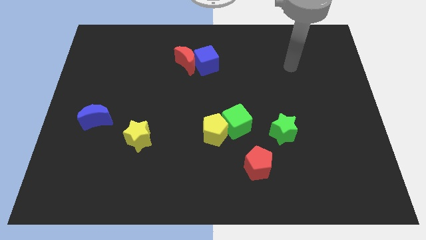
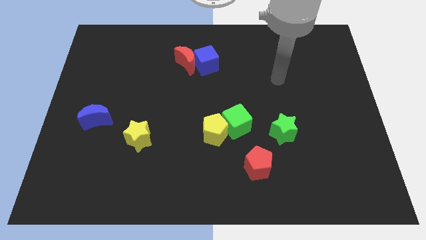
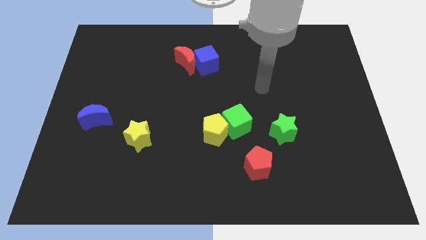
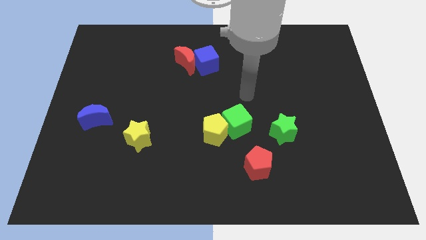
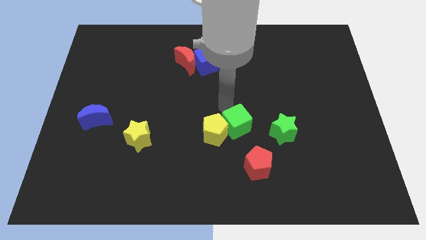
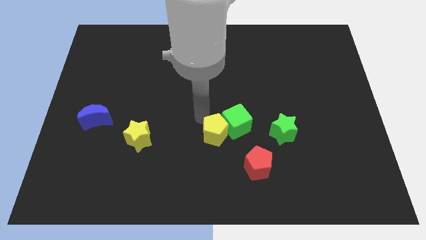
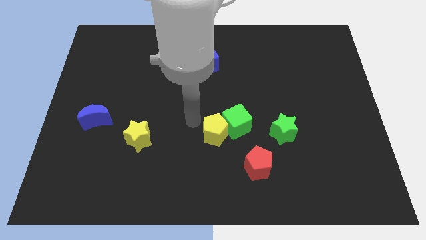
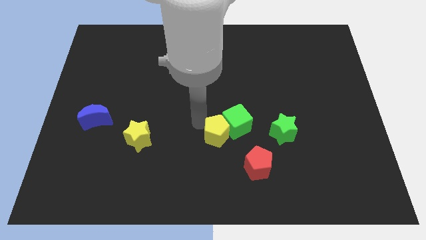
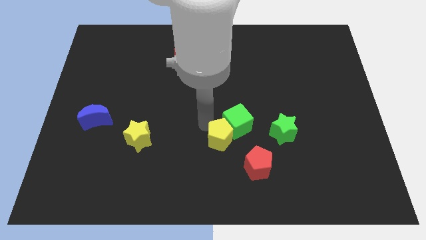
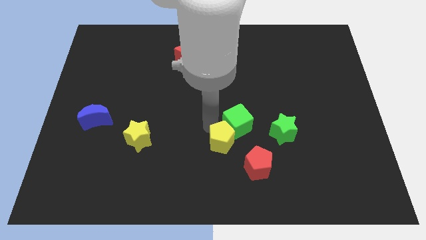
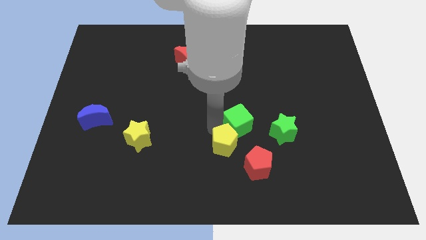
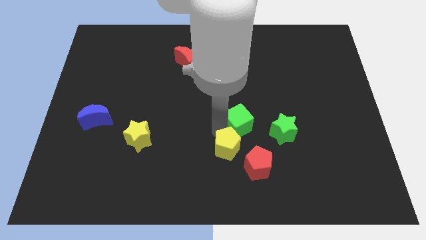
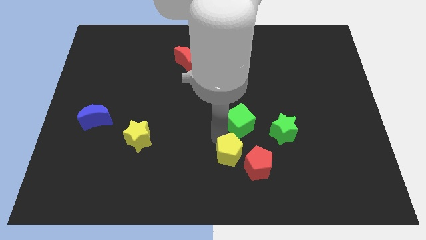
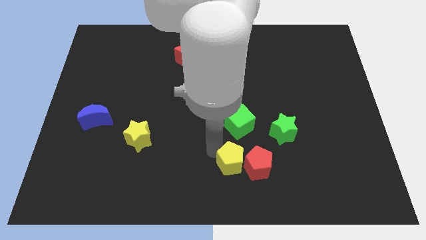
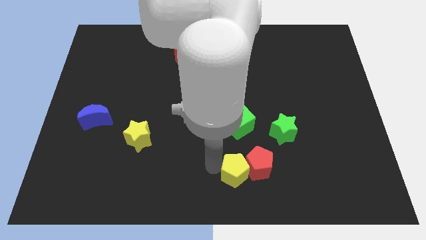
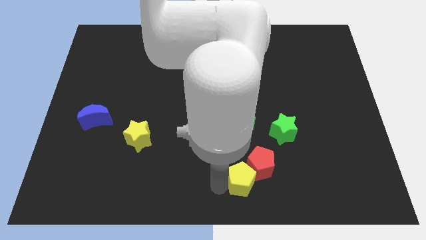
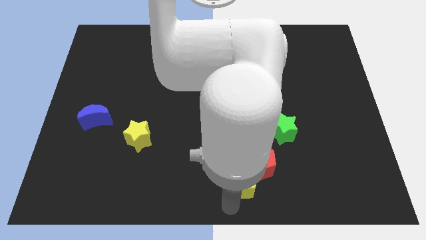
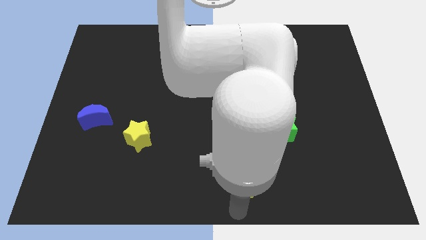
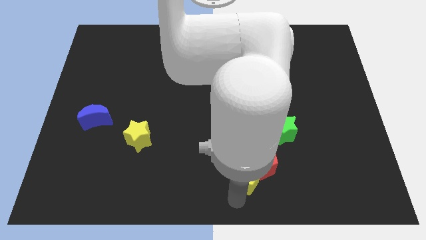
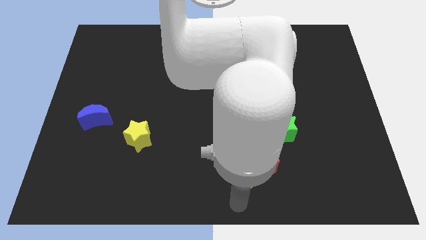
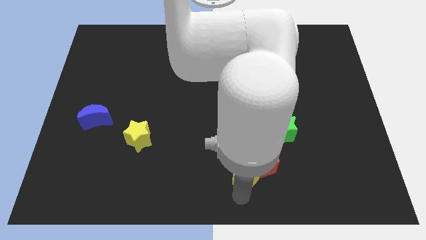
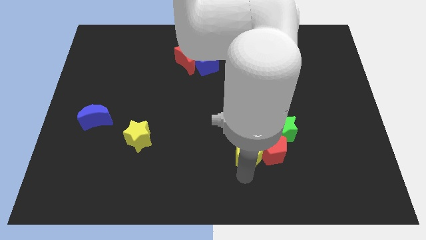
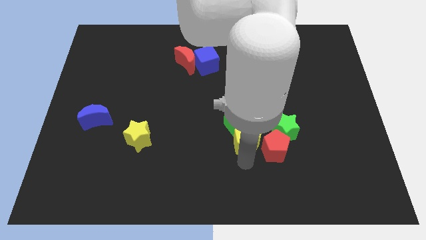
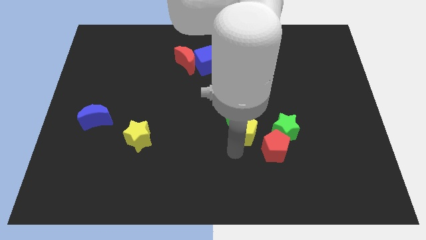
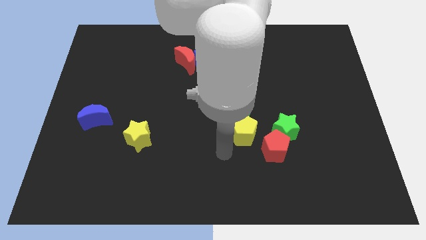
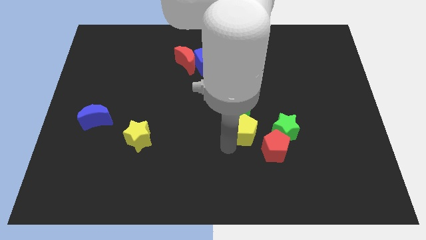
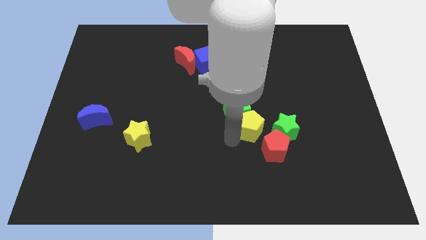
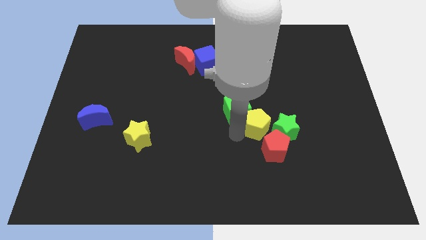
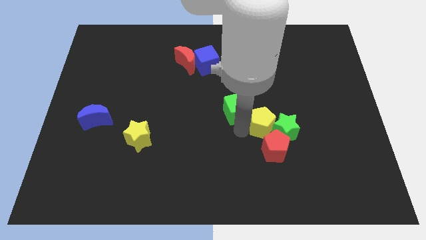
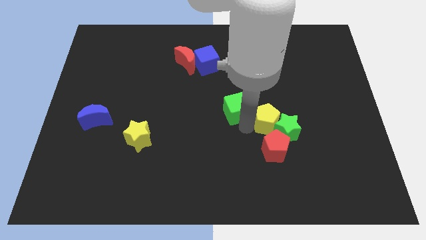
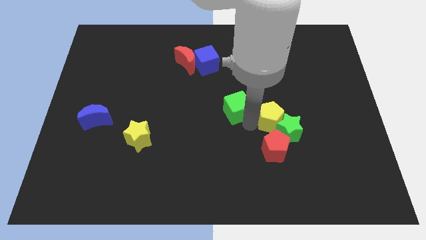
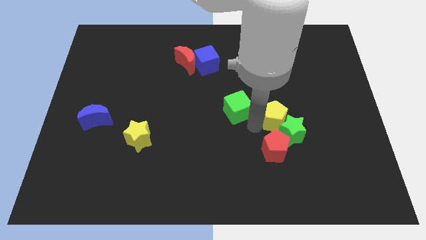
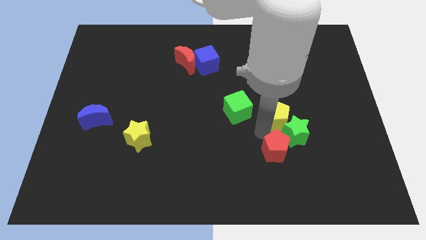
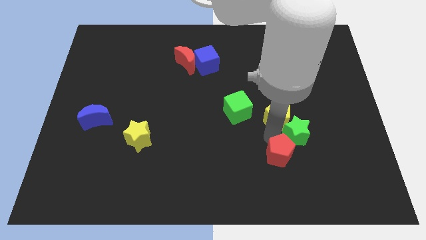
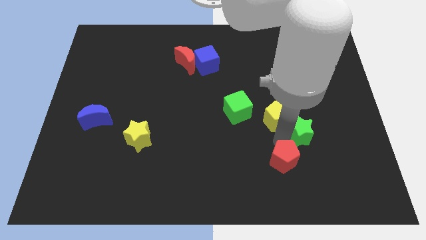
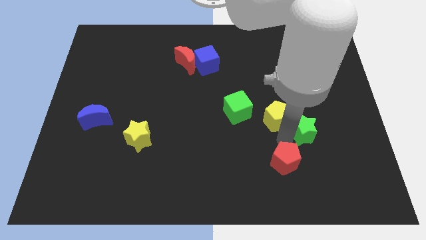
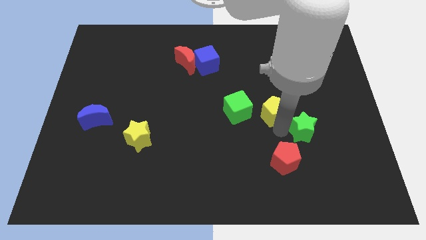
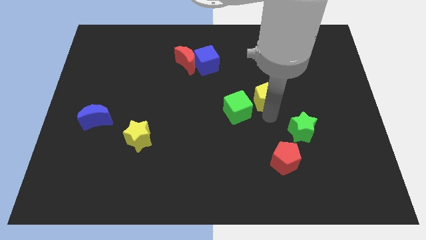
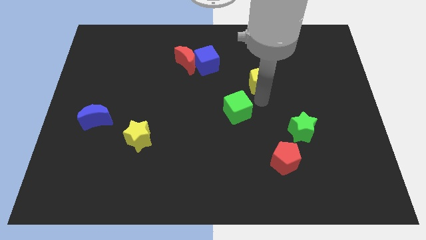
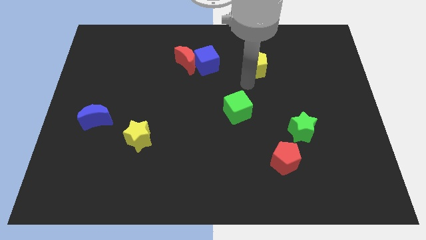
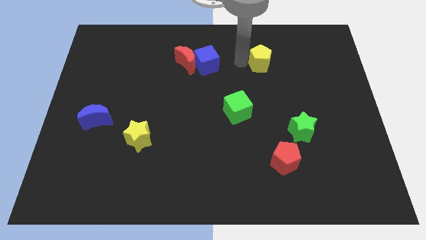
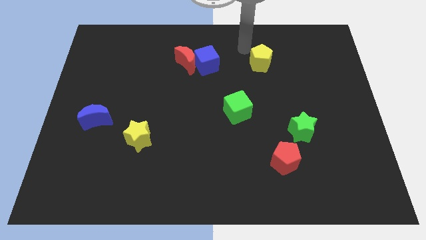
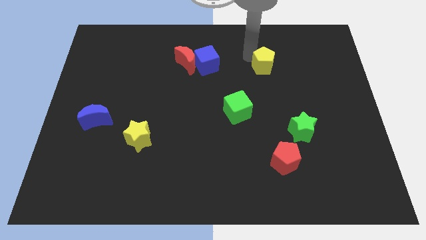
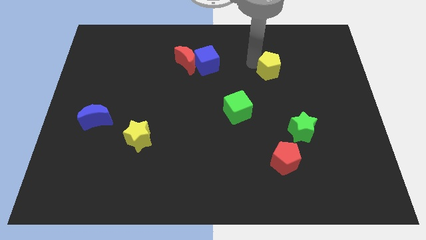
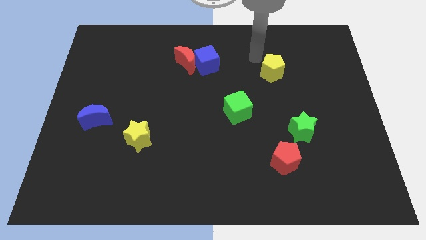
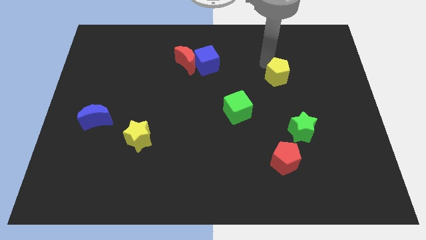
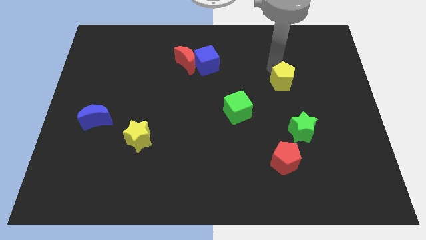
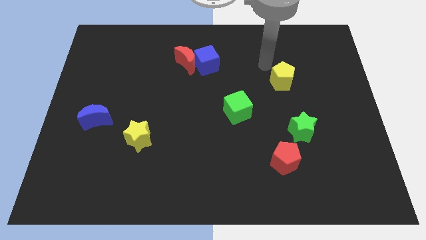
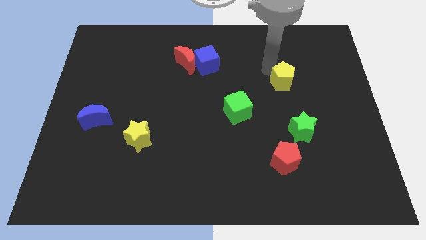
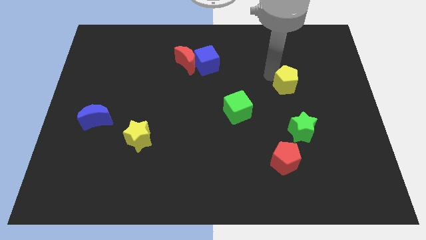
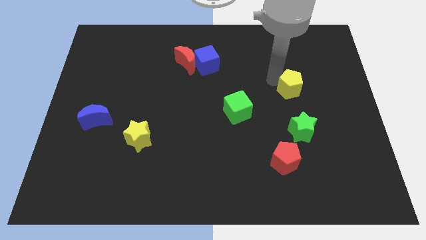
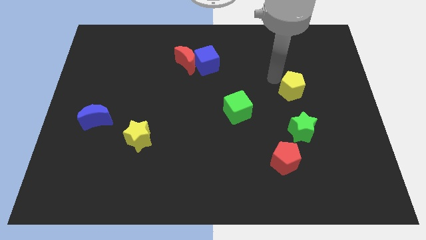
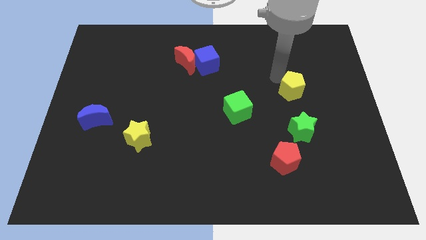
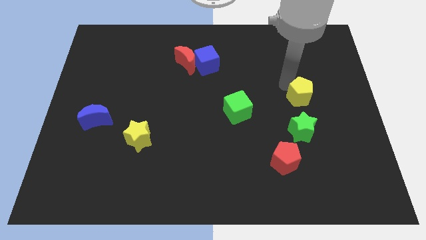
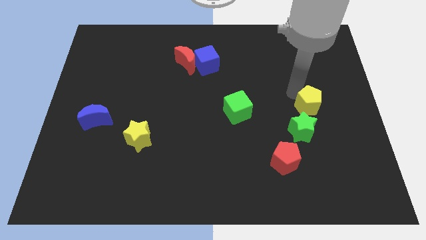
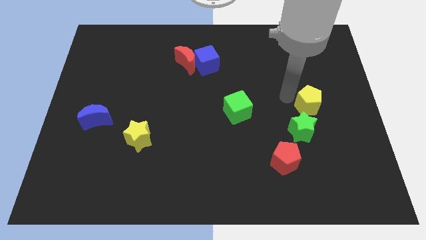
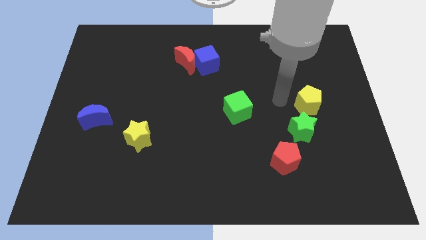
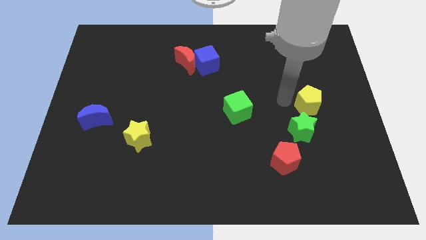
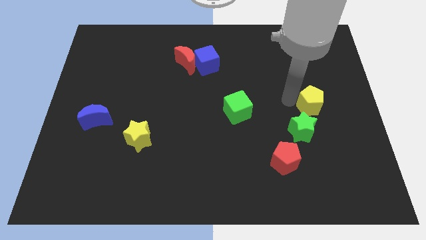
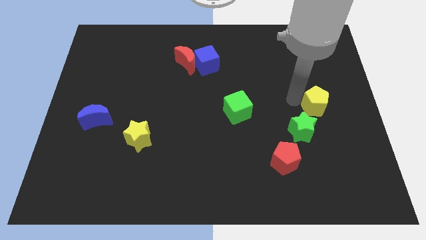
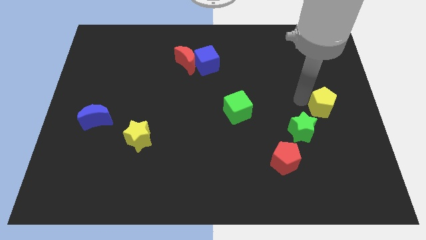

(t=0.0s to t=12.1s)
put the yellow pentagon to the center right
